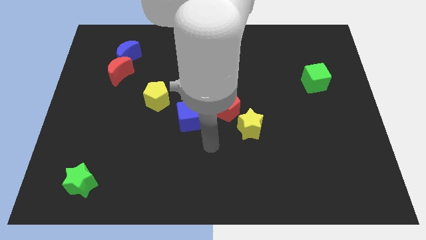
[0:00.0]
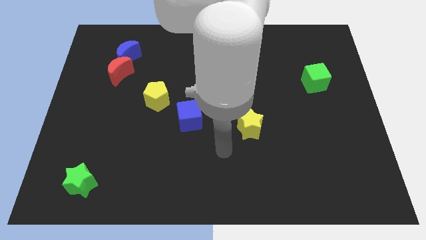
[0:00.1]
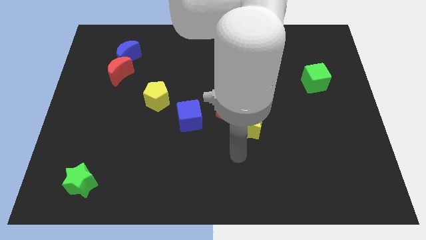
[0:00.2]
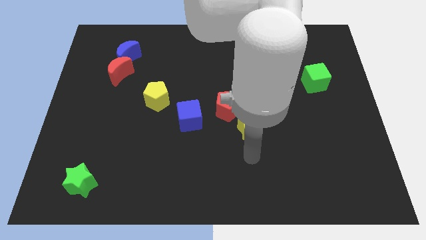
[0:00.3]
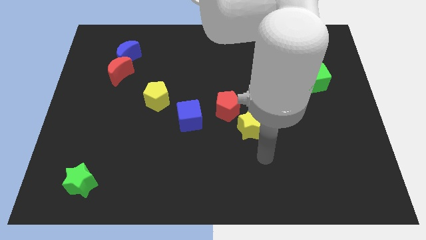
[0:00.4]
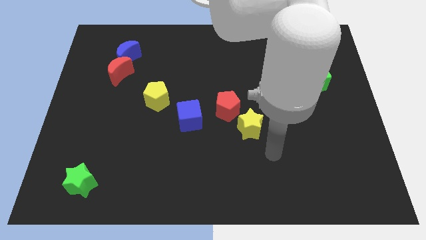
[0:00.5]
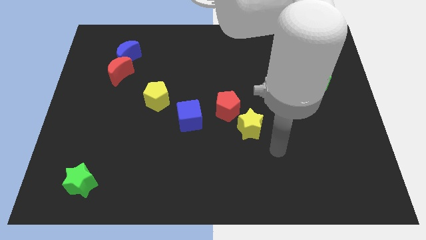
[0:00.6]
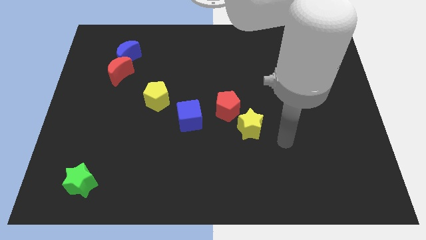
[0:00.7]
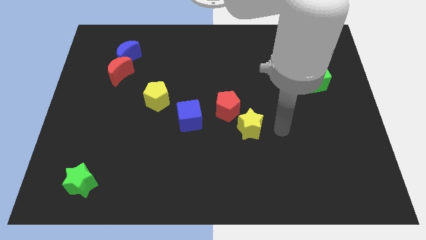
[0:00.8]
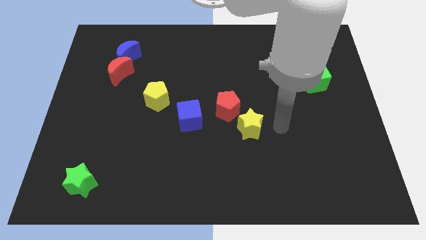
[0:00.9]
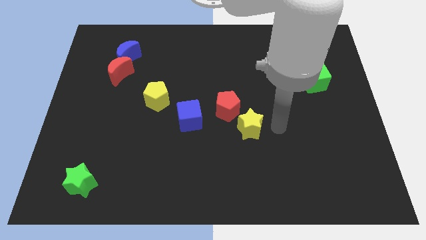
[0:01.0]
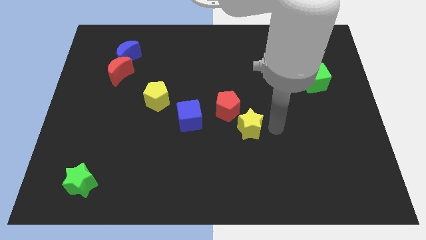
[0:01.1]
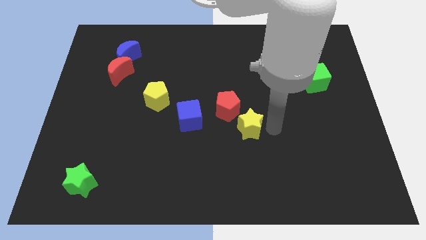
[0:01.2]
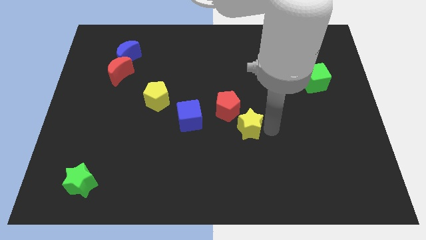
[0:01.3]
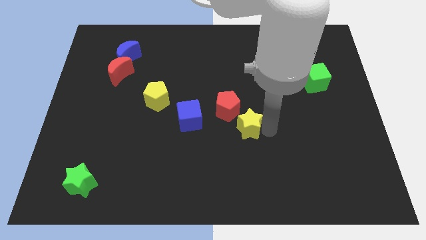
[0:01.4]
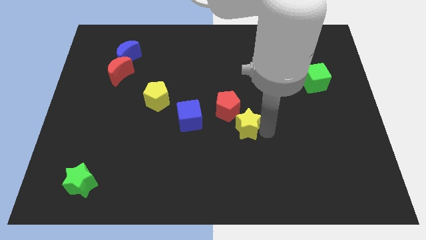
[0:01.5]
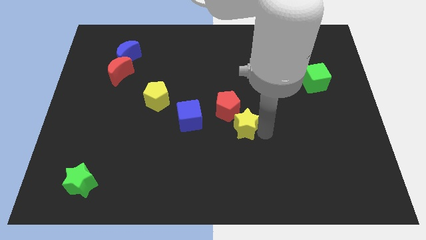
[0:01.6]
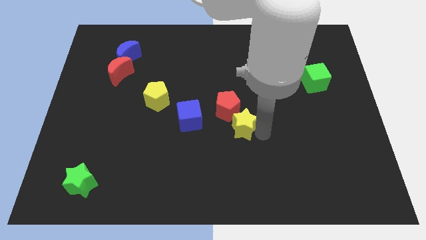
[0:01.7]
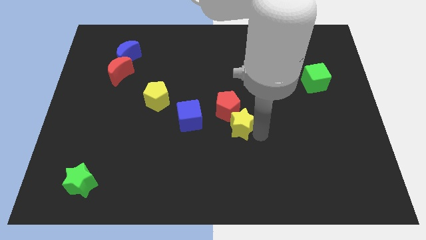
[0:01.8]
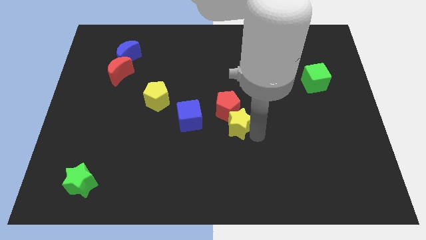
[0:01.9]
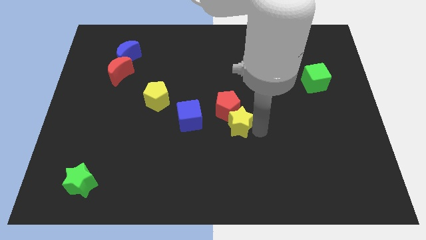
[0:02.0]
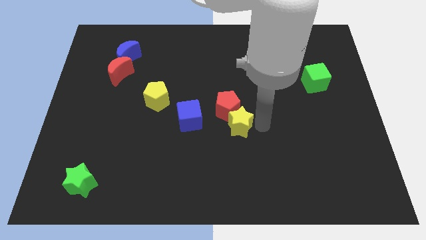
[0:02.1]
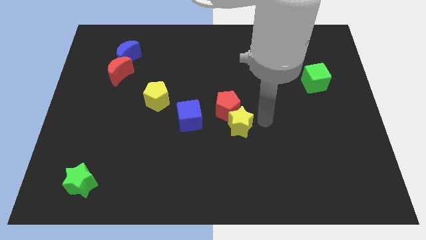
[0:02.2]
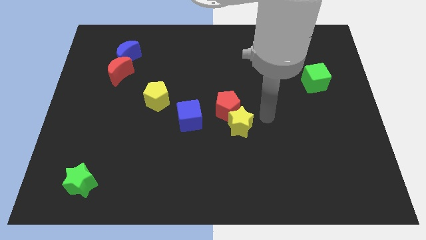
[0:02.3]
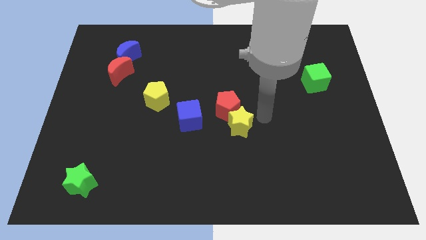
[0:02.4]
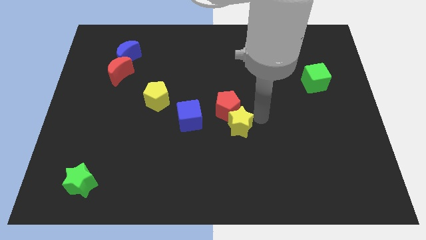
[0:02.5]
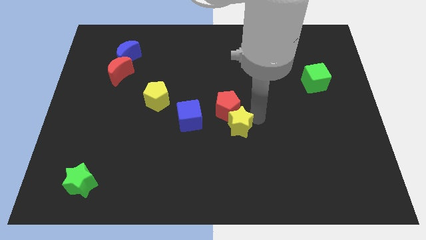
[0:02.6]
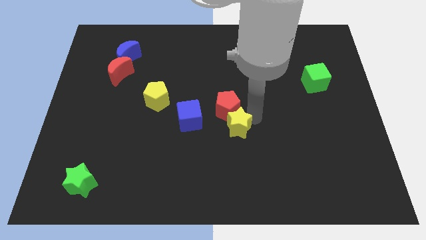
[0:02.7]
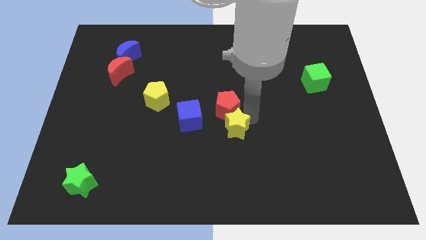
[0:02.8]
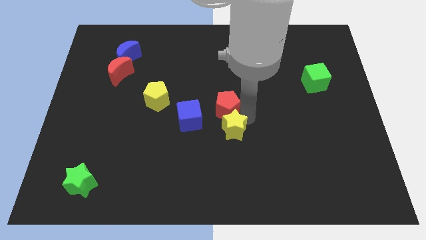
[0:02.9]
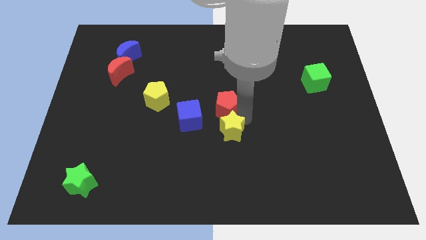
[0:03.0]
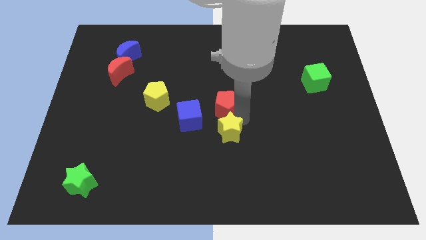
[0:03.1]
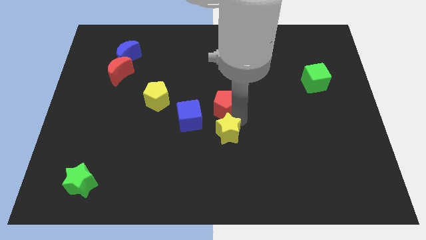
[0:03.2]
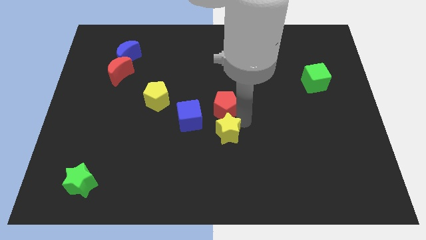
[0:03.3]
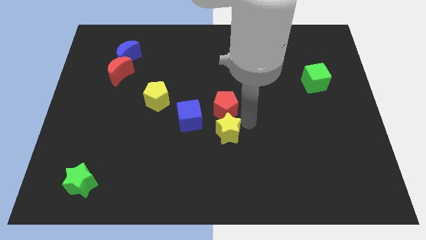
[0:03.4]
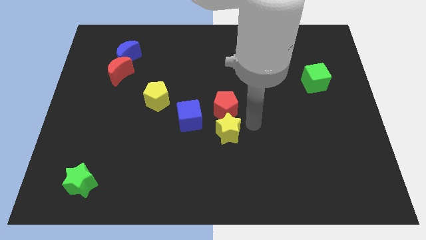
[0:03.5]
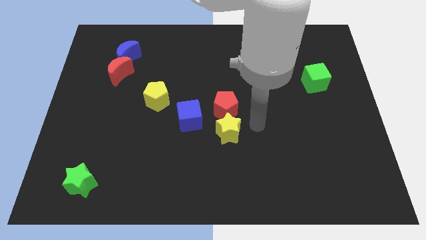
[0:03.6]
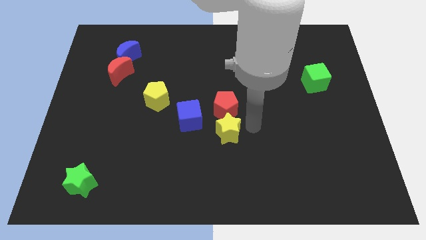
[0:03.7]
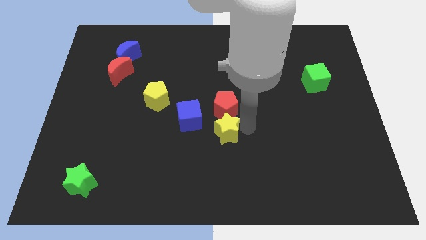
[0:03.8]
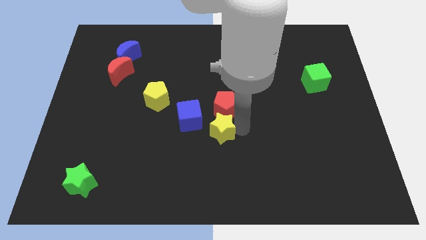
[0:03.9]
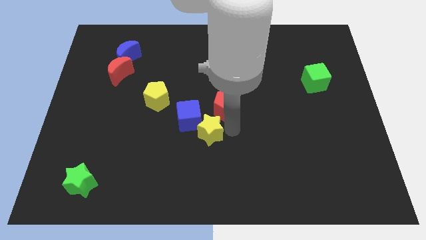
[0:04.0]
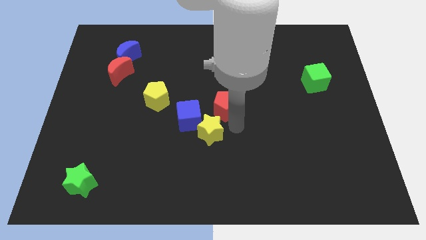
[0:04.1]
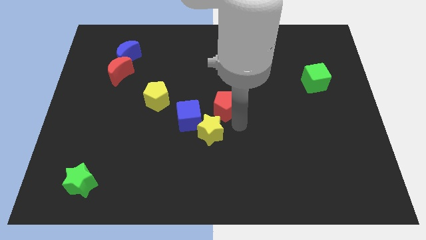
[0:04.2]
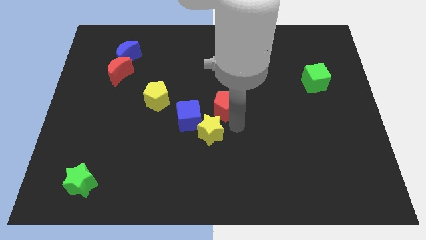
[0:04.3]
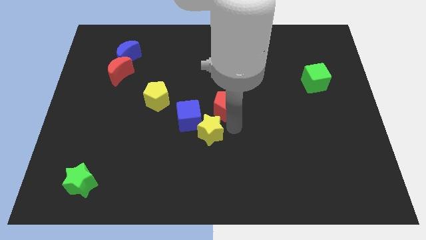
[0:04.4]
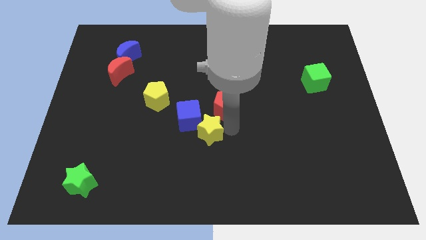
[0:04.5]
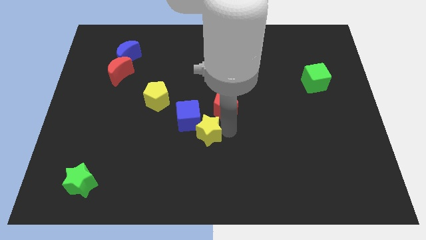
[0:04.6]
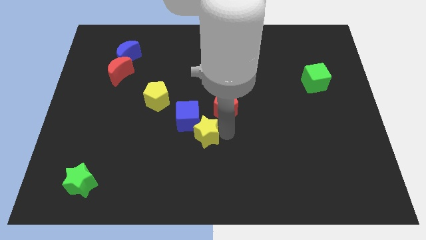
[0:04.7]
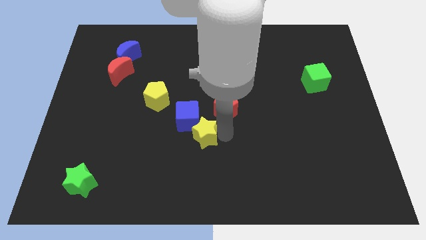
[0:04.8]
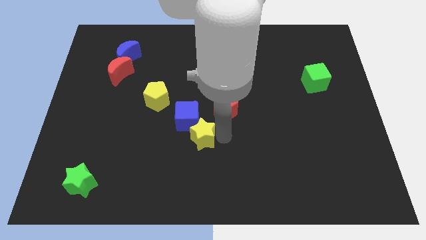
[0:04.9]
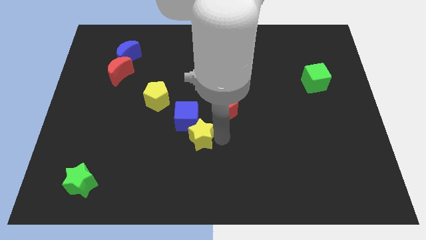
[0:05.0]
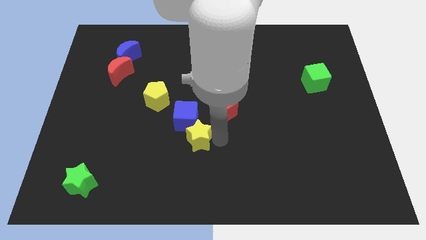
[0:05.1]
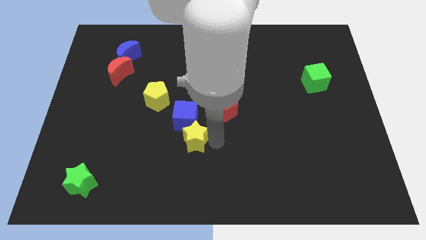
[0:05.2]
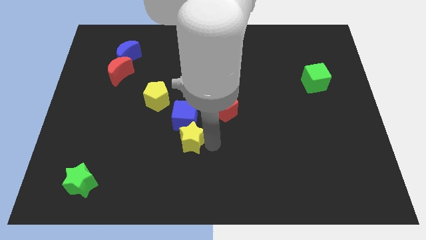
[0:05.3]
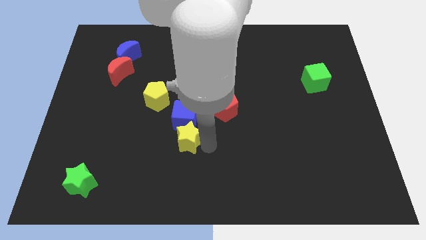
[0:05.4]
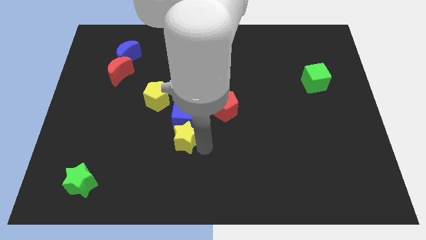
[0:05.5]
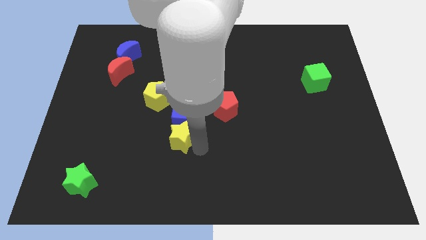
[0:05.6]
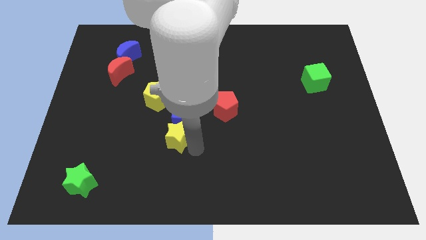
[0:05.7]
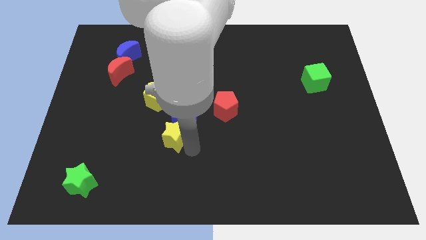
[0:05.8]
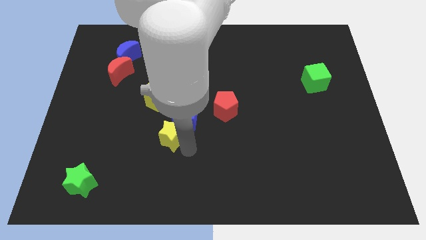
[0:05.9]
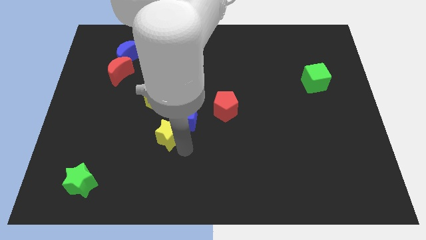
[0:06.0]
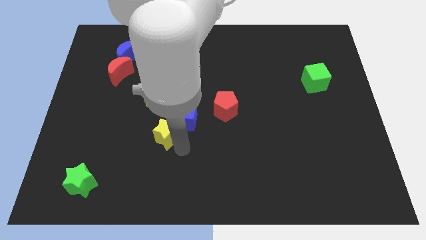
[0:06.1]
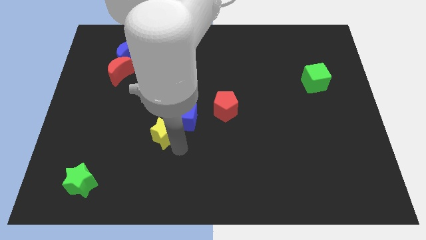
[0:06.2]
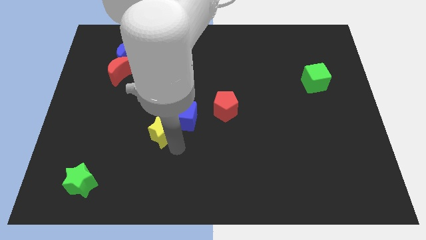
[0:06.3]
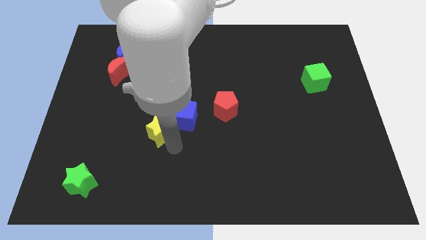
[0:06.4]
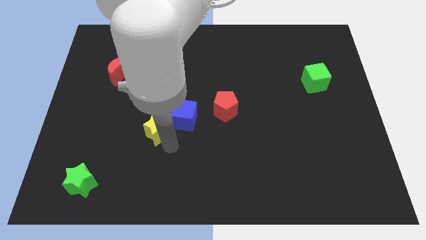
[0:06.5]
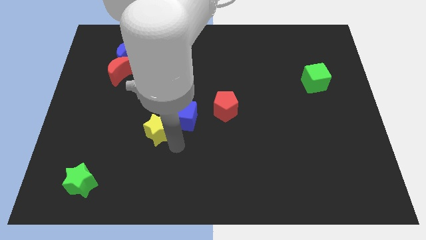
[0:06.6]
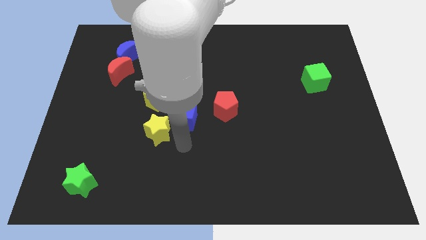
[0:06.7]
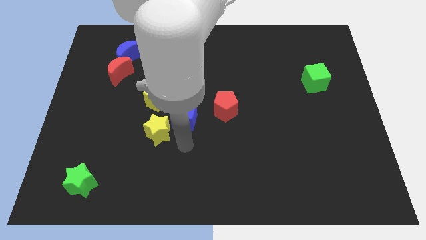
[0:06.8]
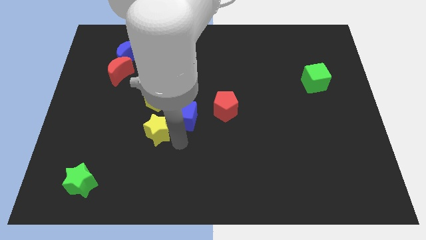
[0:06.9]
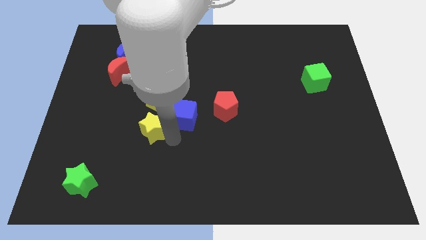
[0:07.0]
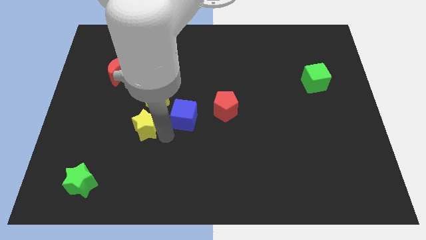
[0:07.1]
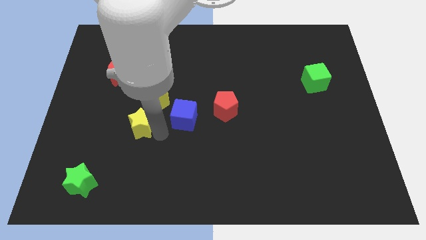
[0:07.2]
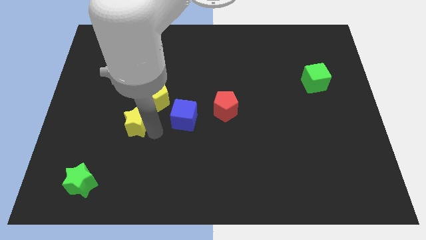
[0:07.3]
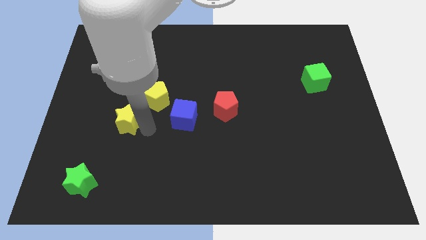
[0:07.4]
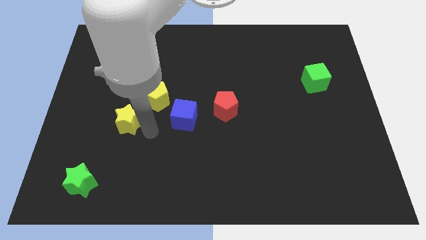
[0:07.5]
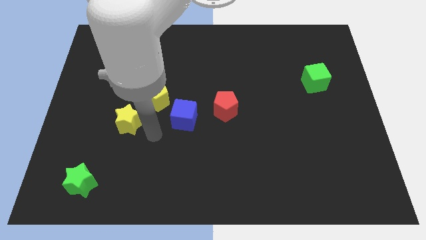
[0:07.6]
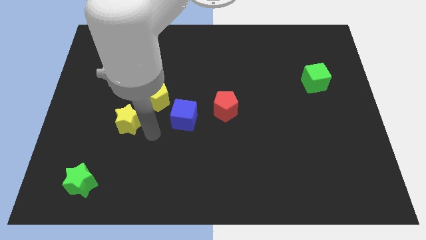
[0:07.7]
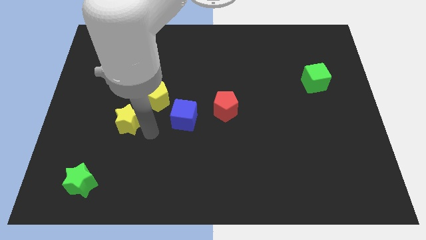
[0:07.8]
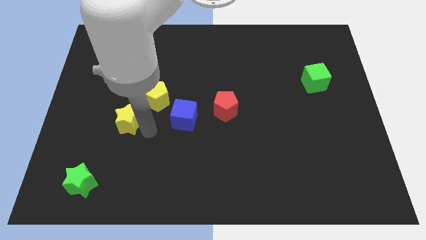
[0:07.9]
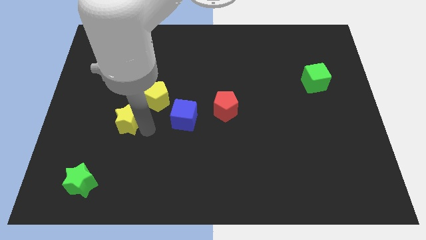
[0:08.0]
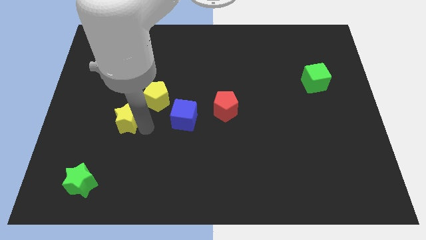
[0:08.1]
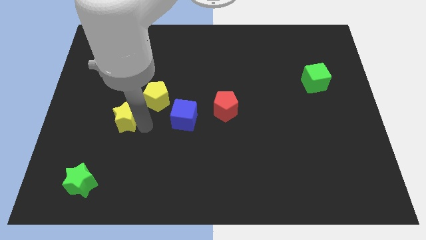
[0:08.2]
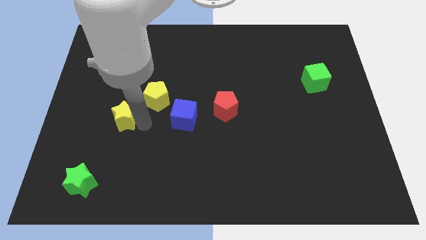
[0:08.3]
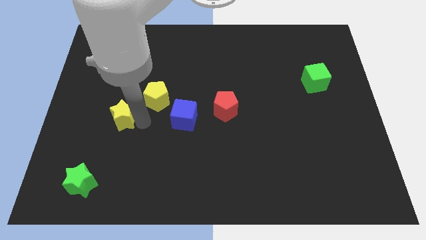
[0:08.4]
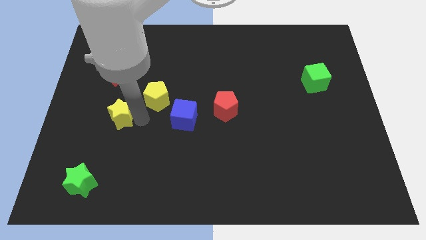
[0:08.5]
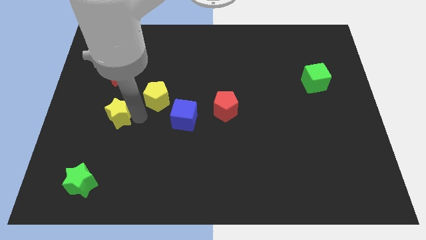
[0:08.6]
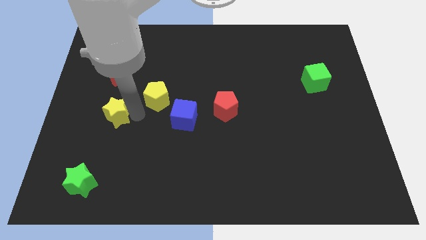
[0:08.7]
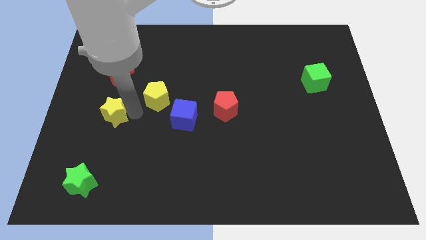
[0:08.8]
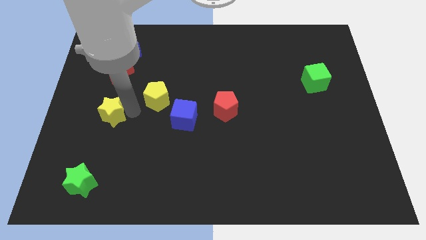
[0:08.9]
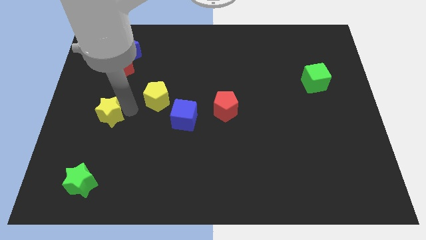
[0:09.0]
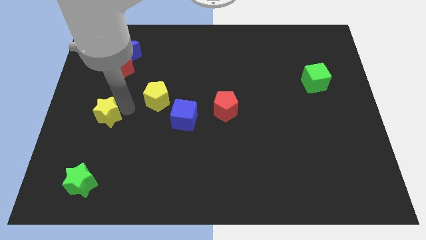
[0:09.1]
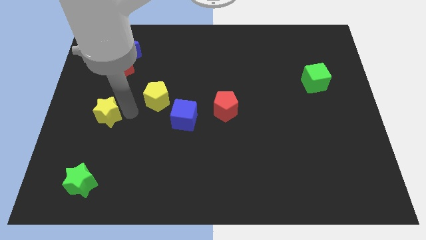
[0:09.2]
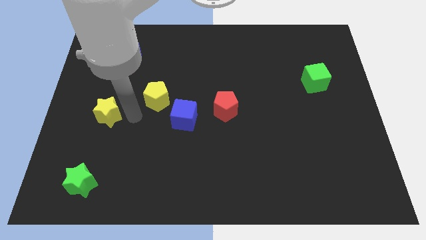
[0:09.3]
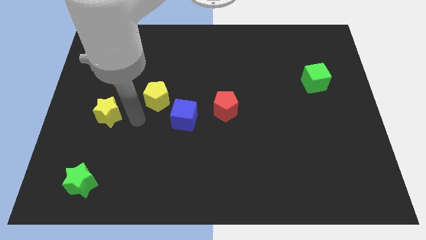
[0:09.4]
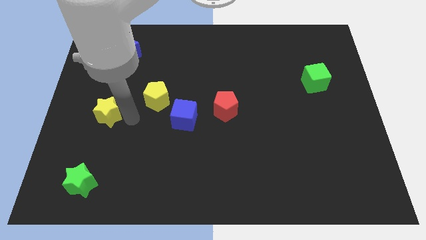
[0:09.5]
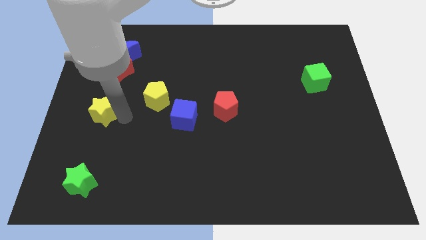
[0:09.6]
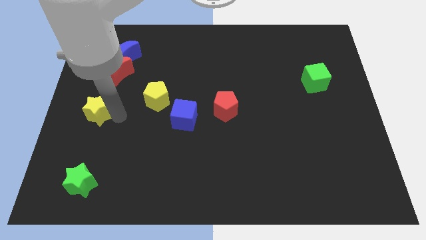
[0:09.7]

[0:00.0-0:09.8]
push the yellow star to the center left
